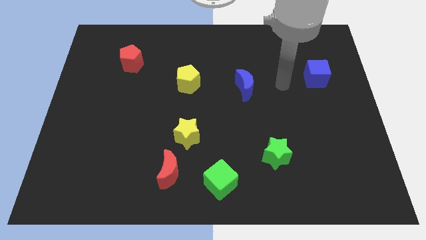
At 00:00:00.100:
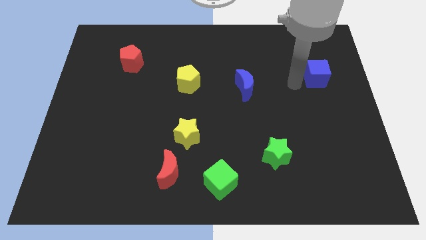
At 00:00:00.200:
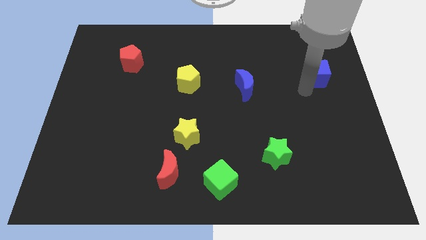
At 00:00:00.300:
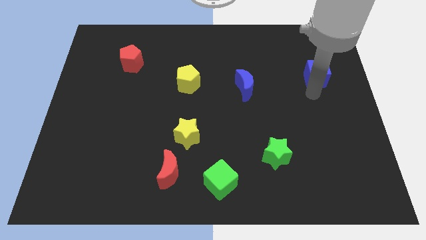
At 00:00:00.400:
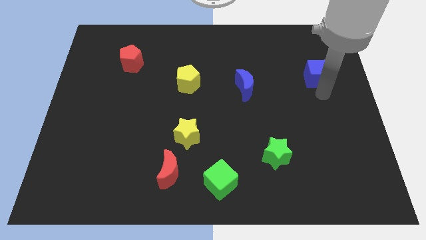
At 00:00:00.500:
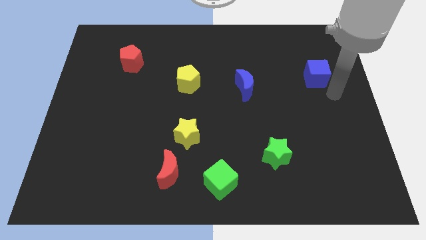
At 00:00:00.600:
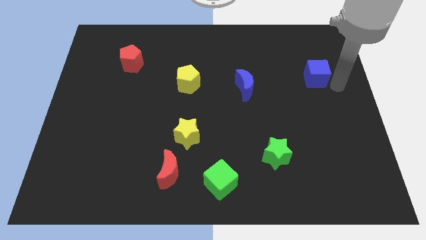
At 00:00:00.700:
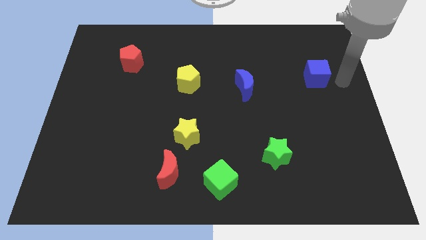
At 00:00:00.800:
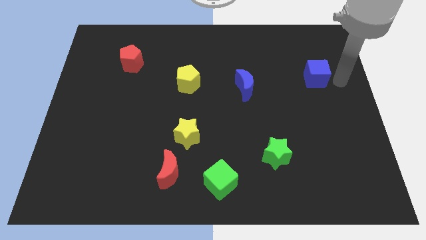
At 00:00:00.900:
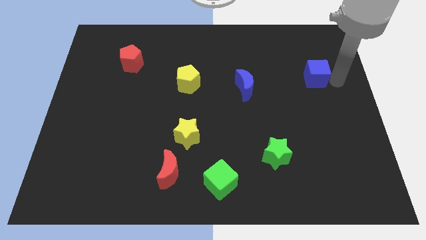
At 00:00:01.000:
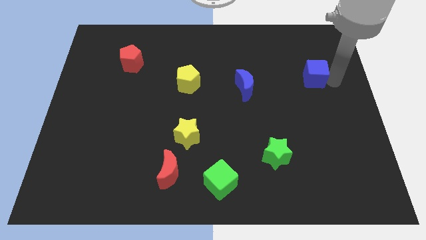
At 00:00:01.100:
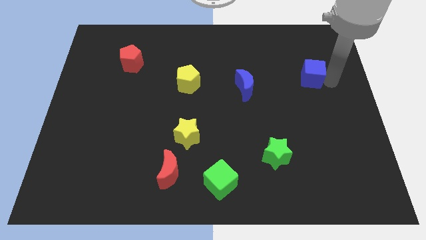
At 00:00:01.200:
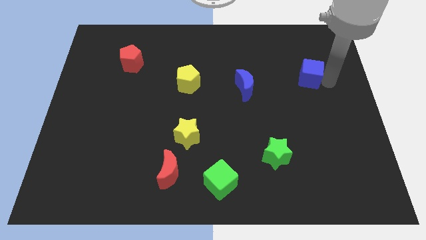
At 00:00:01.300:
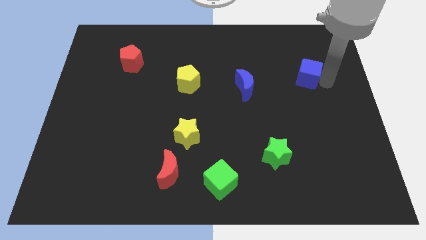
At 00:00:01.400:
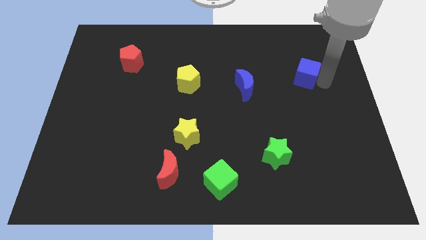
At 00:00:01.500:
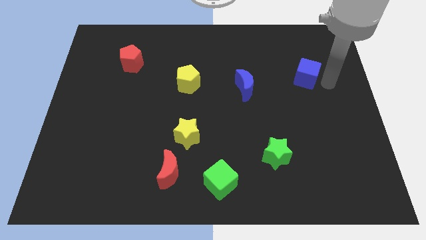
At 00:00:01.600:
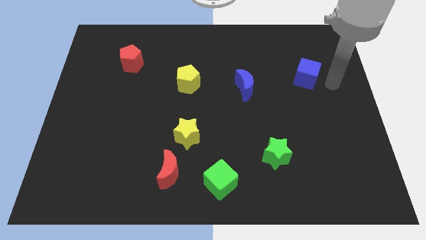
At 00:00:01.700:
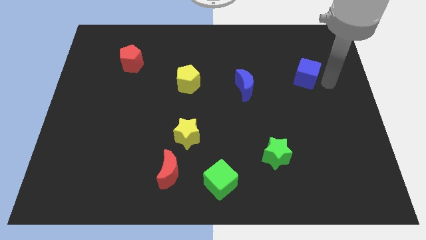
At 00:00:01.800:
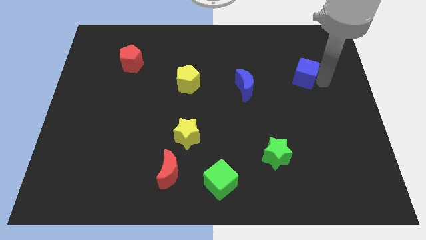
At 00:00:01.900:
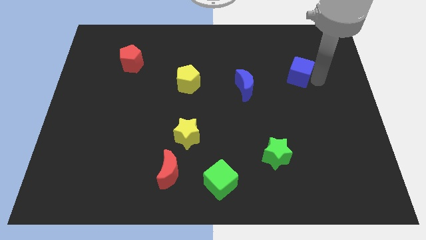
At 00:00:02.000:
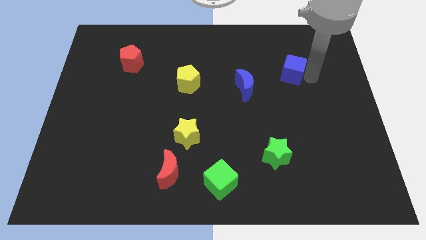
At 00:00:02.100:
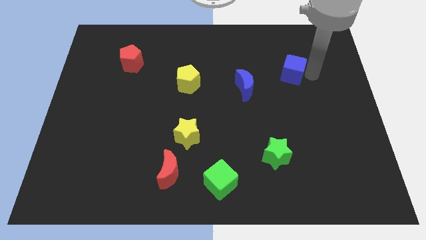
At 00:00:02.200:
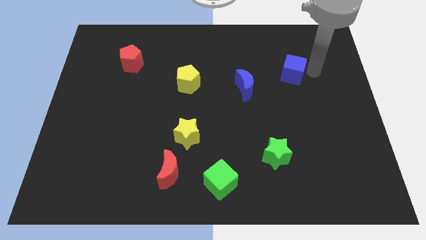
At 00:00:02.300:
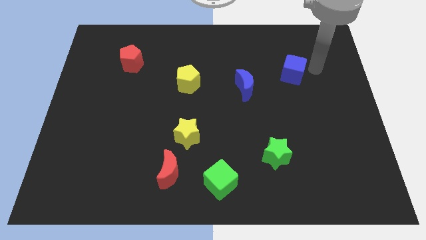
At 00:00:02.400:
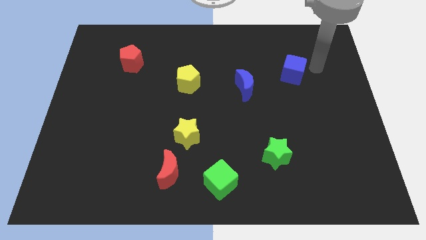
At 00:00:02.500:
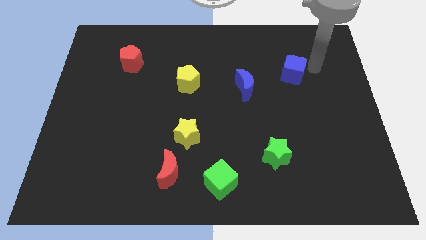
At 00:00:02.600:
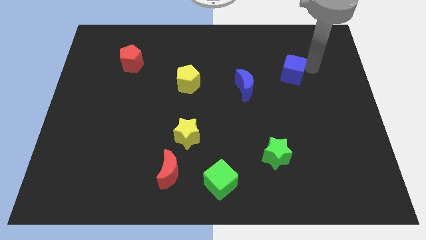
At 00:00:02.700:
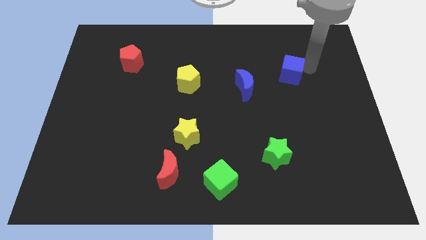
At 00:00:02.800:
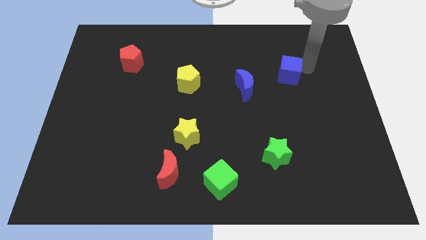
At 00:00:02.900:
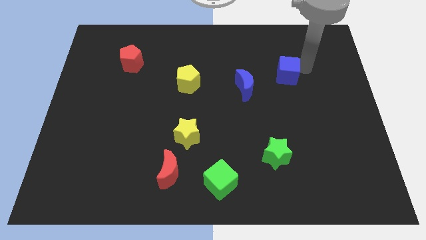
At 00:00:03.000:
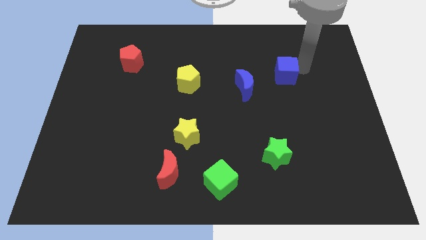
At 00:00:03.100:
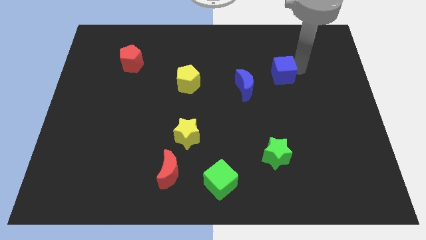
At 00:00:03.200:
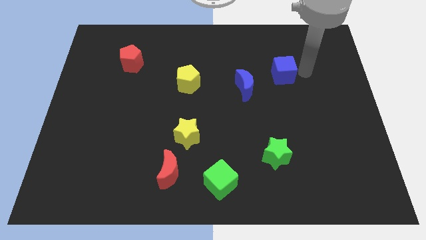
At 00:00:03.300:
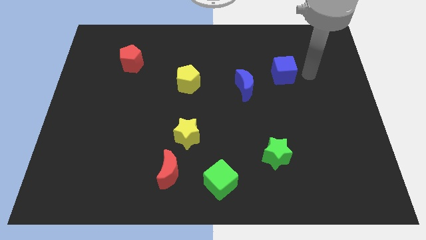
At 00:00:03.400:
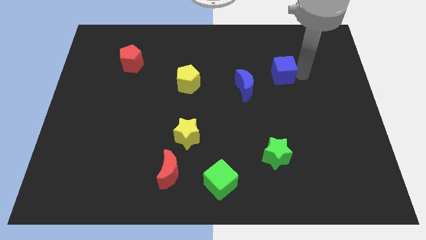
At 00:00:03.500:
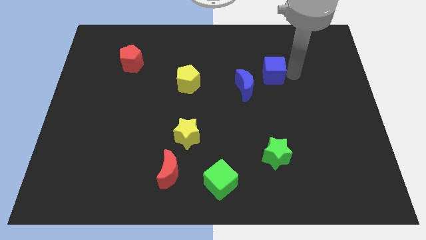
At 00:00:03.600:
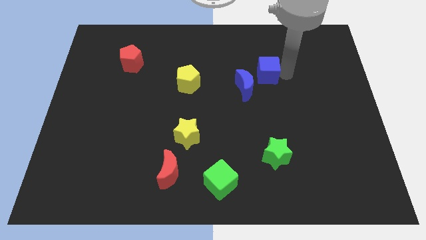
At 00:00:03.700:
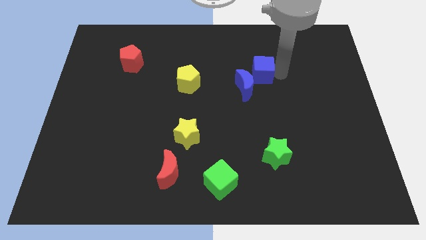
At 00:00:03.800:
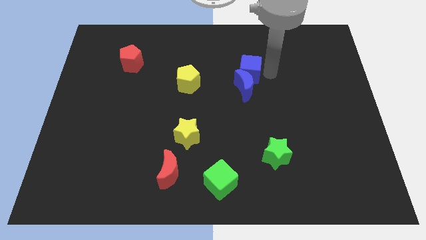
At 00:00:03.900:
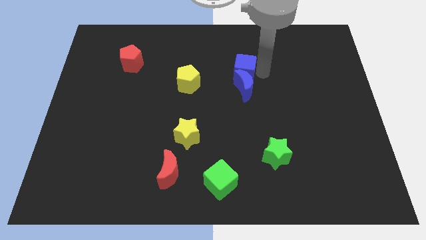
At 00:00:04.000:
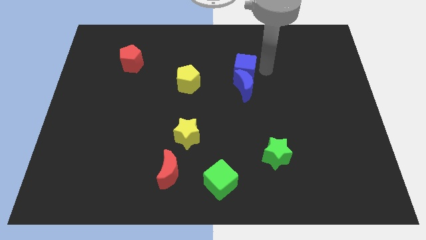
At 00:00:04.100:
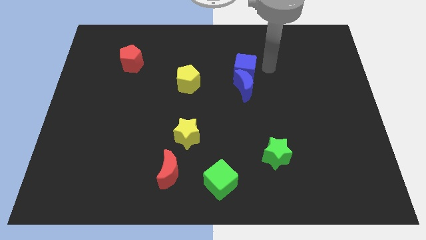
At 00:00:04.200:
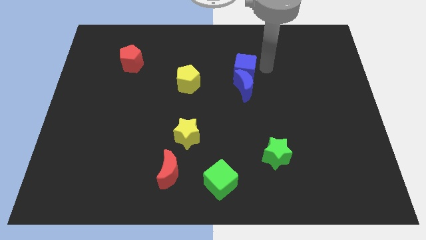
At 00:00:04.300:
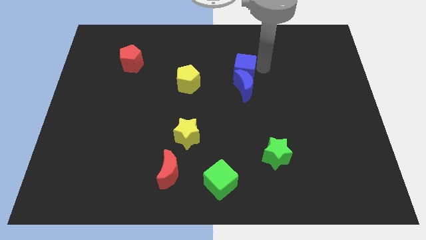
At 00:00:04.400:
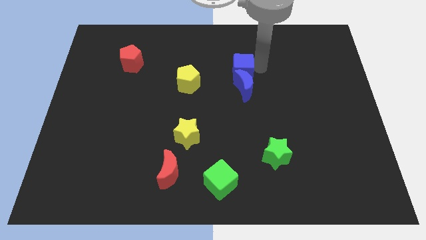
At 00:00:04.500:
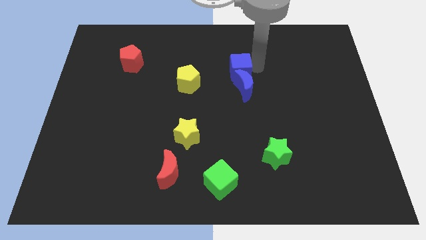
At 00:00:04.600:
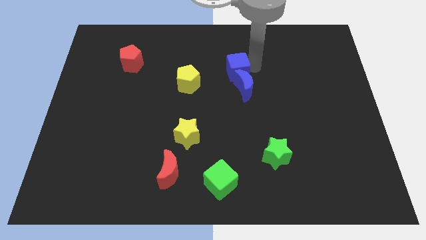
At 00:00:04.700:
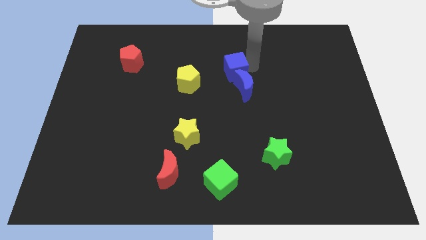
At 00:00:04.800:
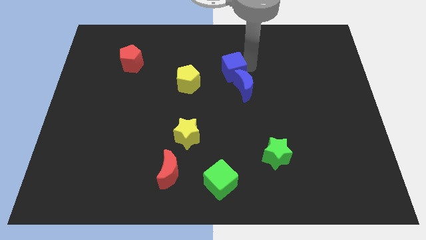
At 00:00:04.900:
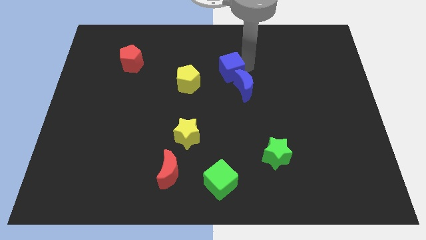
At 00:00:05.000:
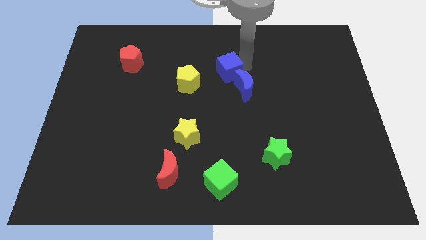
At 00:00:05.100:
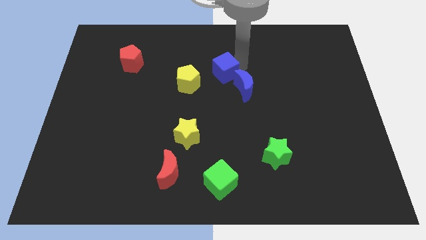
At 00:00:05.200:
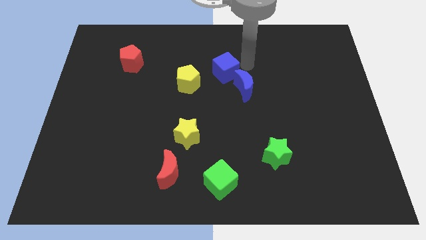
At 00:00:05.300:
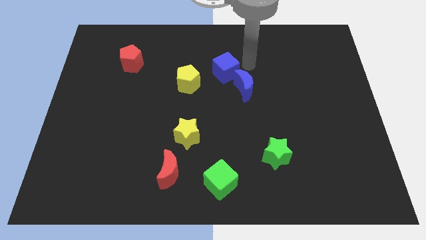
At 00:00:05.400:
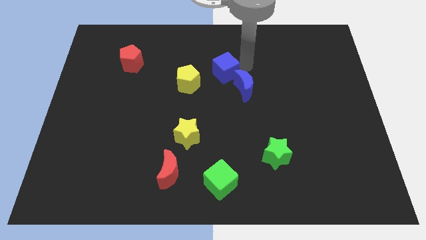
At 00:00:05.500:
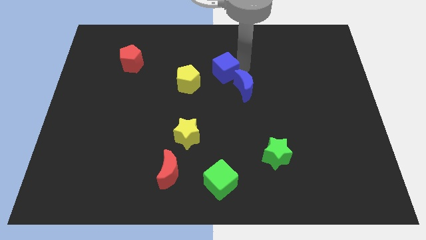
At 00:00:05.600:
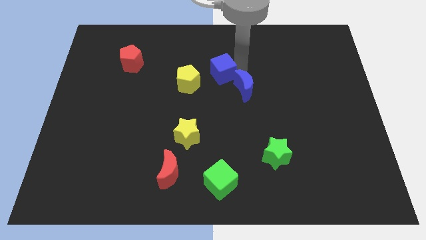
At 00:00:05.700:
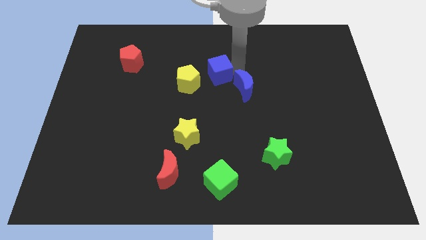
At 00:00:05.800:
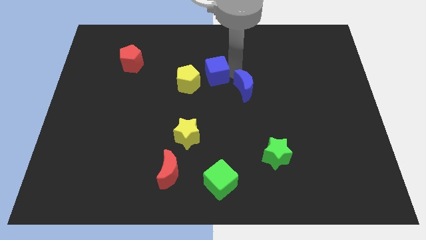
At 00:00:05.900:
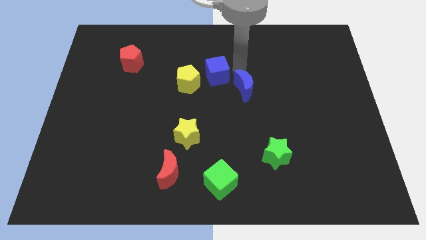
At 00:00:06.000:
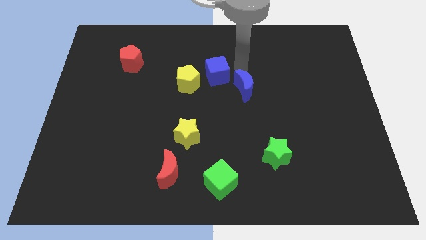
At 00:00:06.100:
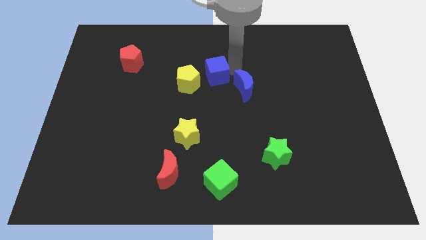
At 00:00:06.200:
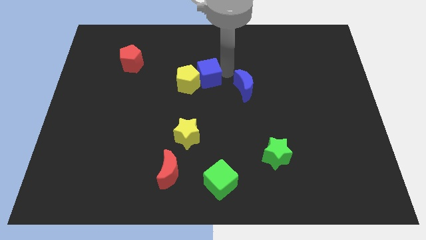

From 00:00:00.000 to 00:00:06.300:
put the blue cube towards the yellow pentagon

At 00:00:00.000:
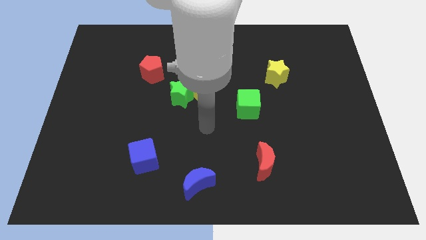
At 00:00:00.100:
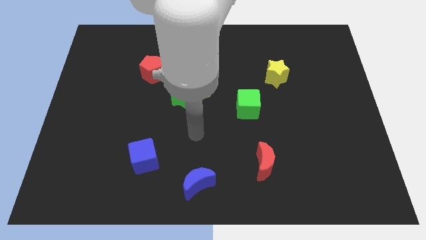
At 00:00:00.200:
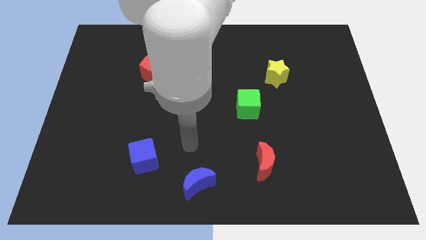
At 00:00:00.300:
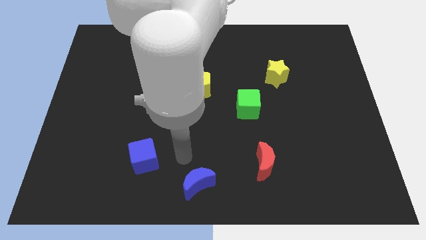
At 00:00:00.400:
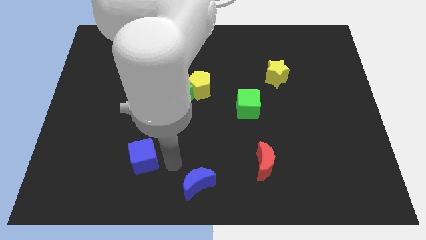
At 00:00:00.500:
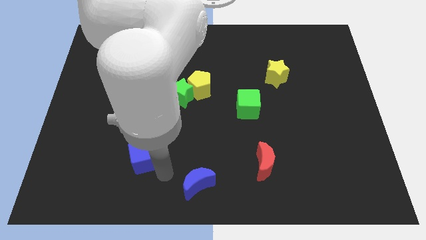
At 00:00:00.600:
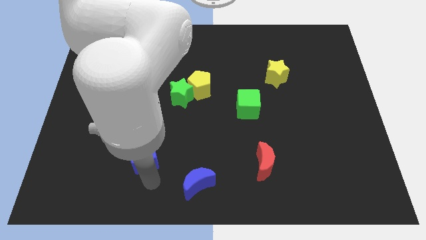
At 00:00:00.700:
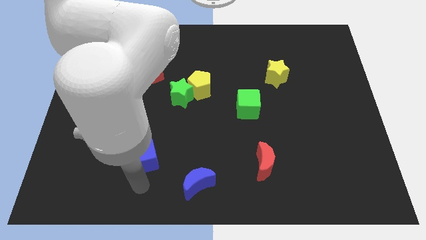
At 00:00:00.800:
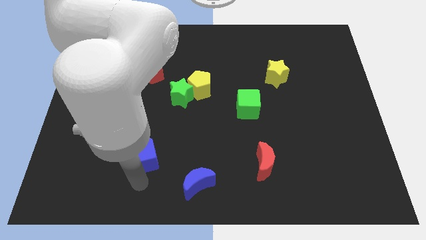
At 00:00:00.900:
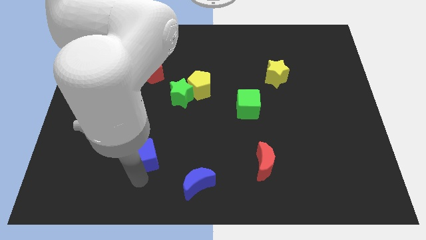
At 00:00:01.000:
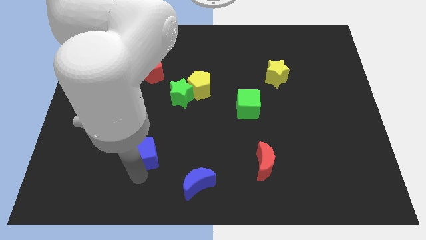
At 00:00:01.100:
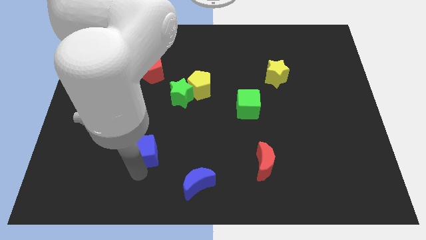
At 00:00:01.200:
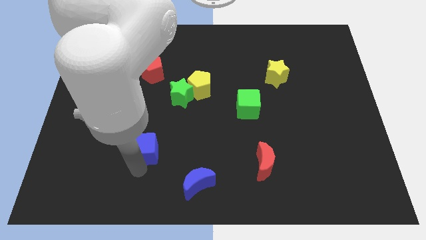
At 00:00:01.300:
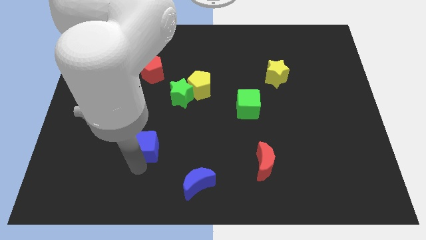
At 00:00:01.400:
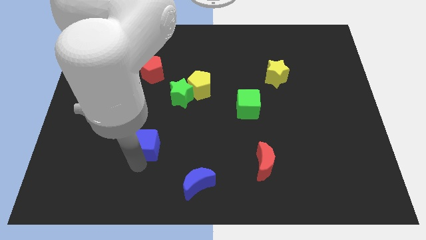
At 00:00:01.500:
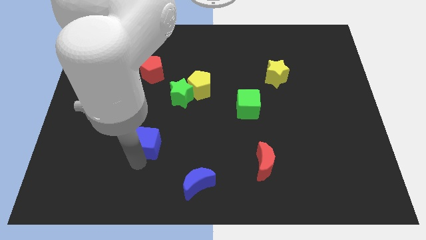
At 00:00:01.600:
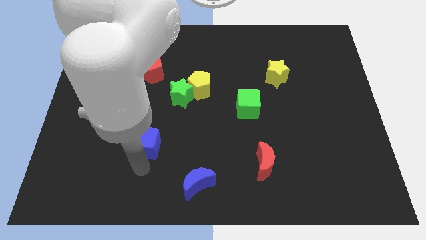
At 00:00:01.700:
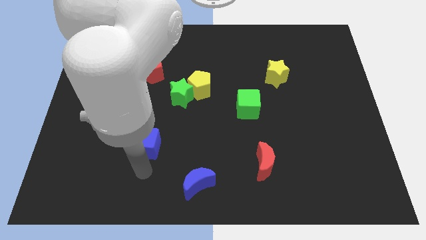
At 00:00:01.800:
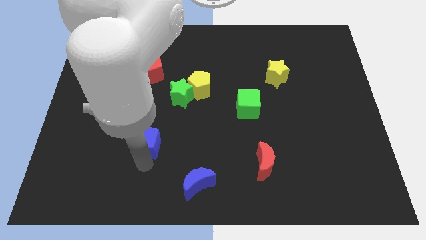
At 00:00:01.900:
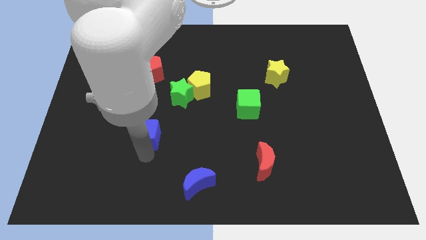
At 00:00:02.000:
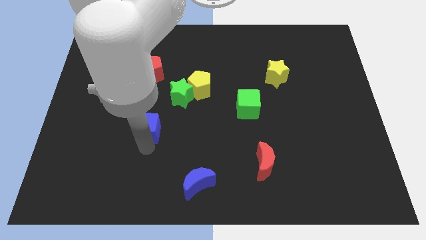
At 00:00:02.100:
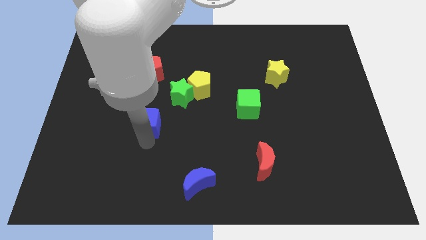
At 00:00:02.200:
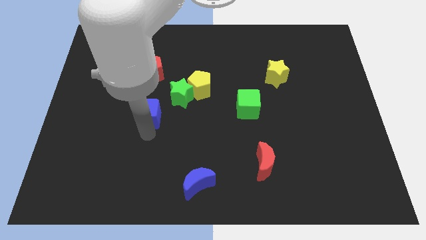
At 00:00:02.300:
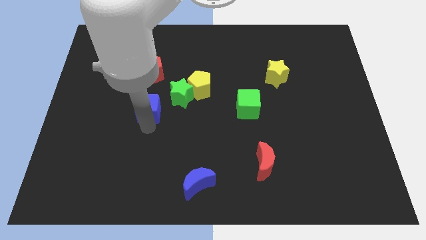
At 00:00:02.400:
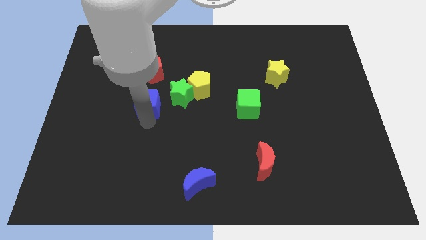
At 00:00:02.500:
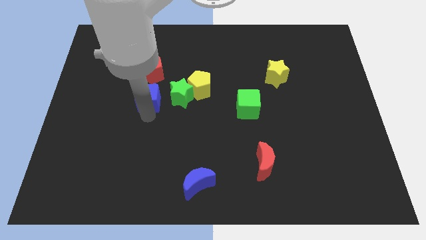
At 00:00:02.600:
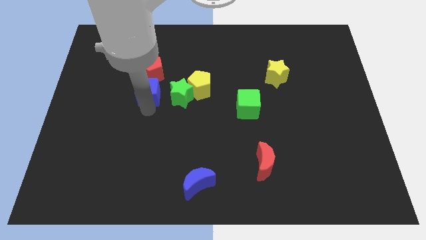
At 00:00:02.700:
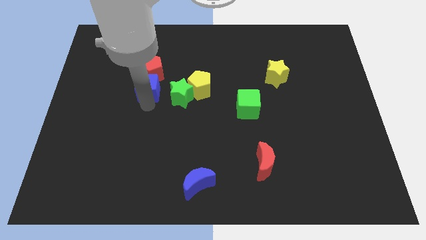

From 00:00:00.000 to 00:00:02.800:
move the blue cube towards the red pentagon
